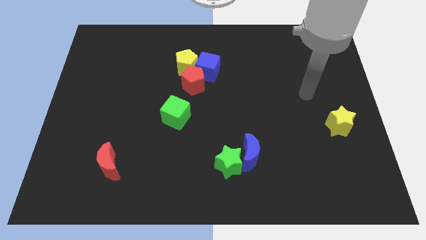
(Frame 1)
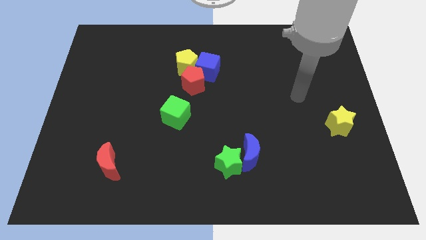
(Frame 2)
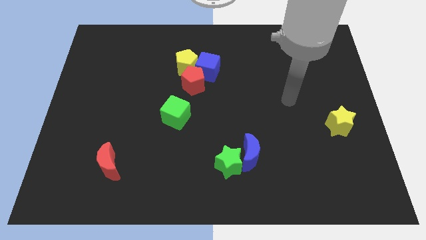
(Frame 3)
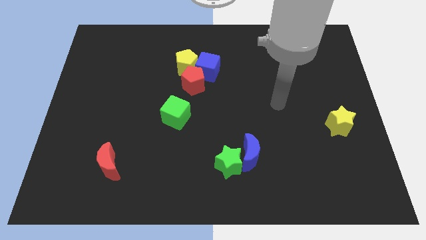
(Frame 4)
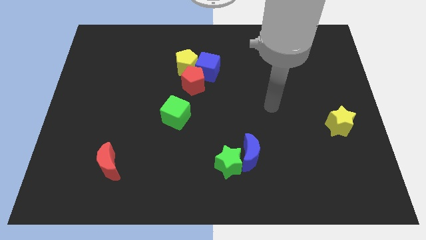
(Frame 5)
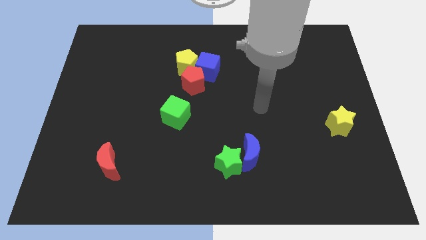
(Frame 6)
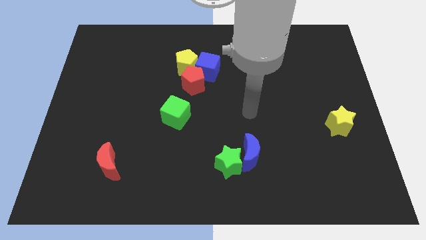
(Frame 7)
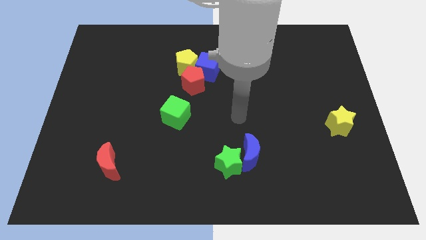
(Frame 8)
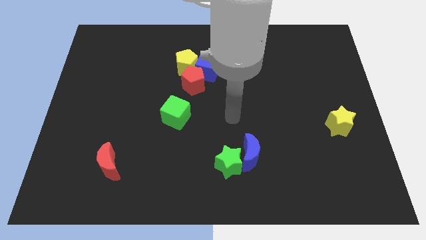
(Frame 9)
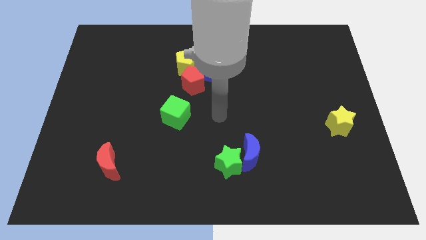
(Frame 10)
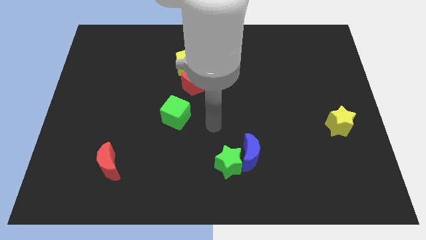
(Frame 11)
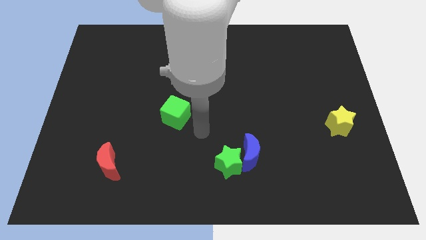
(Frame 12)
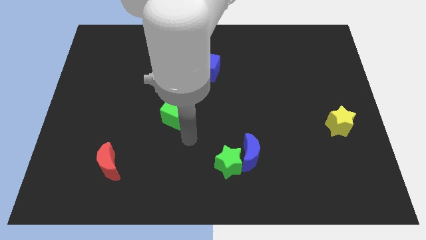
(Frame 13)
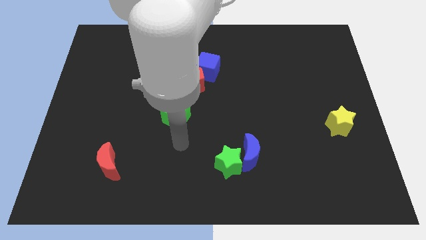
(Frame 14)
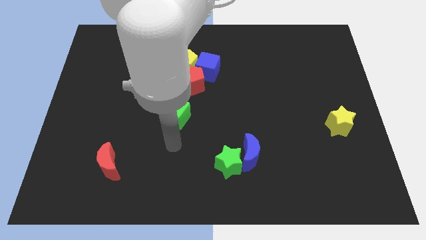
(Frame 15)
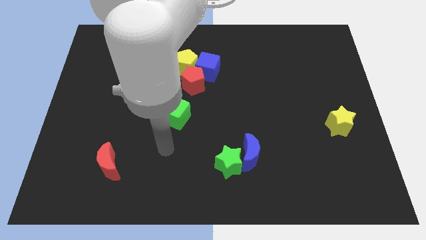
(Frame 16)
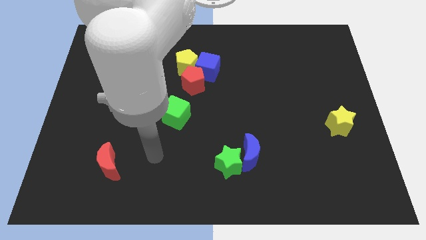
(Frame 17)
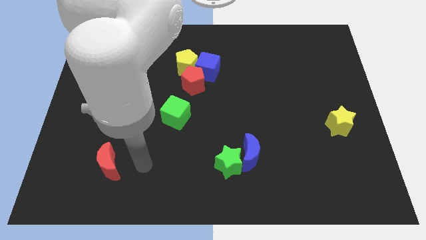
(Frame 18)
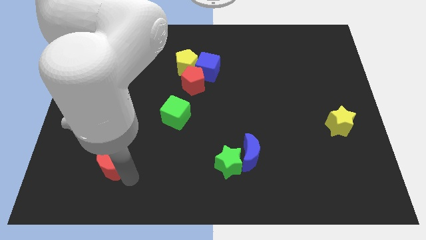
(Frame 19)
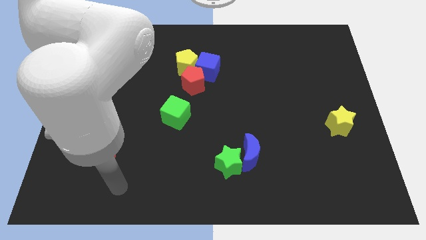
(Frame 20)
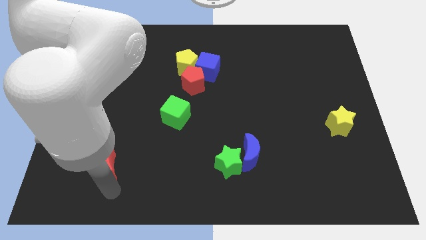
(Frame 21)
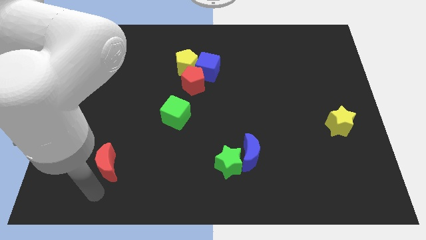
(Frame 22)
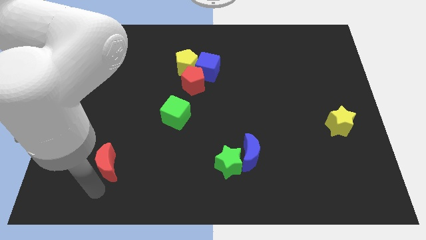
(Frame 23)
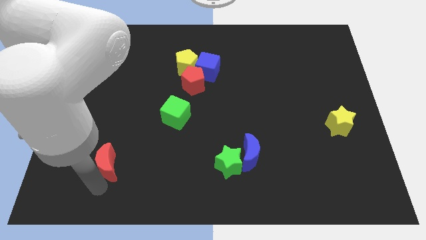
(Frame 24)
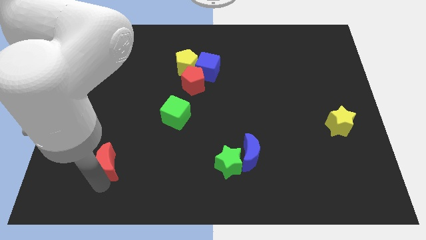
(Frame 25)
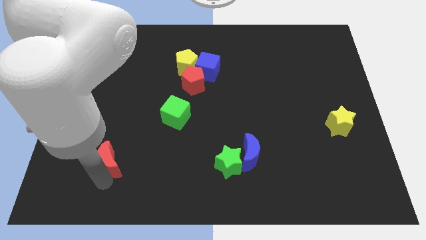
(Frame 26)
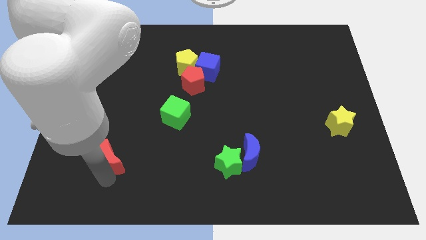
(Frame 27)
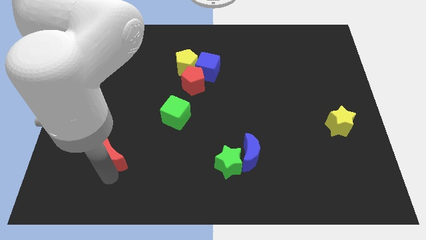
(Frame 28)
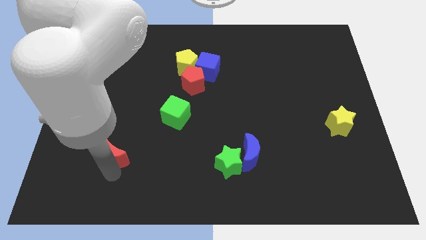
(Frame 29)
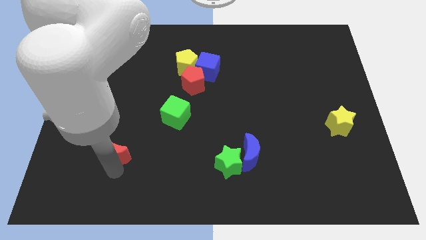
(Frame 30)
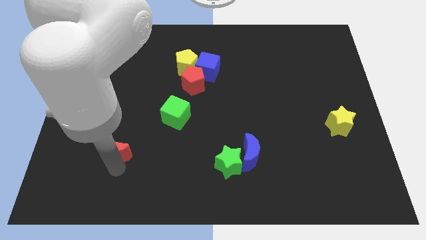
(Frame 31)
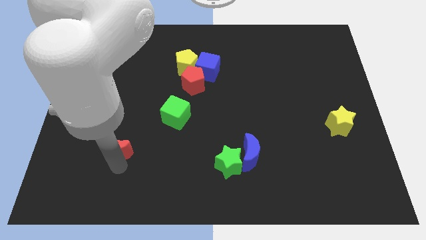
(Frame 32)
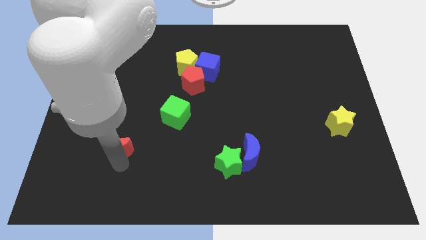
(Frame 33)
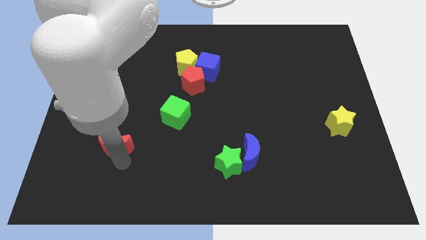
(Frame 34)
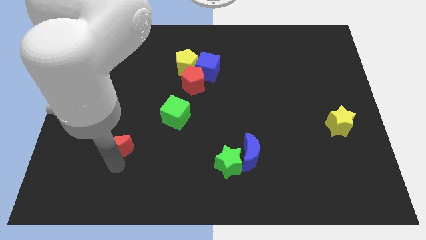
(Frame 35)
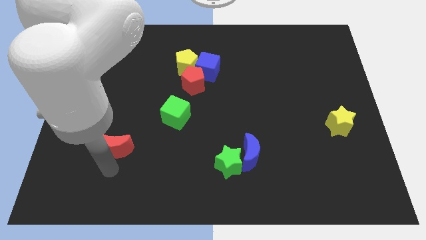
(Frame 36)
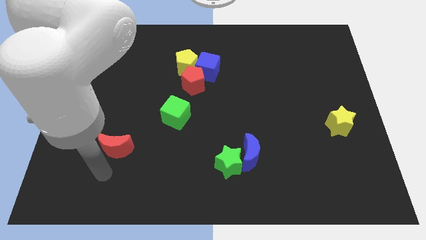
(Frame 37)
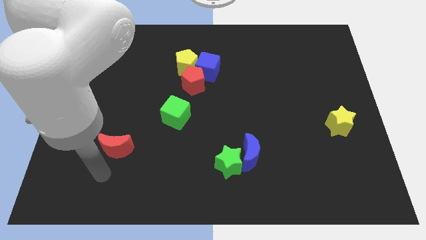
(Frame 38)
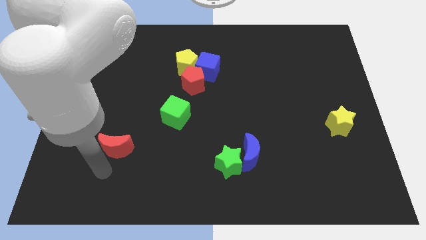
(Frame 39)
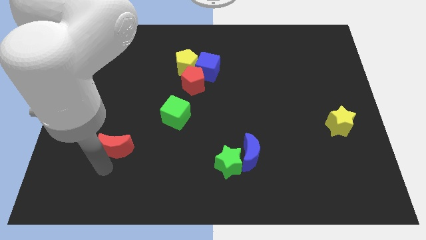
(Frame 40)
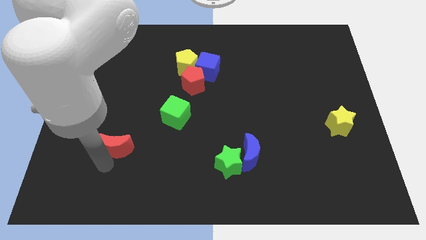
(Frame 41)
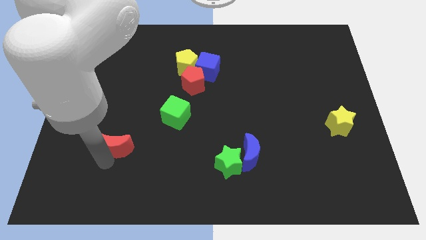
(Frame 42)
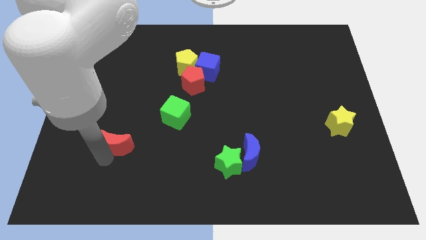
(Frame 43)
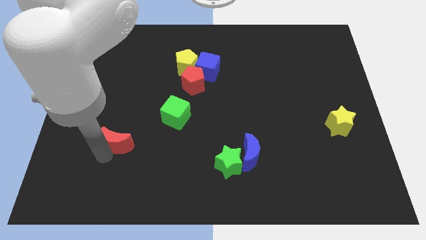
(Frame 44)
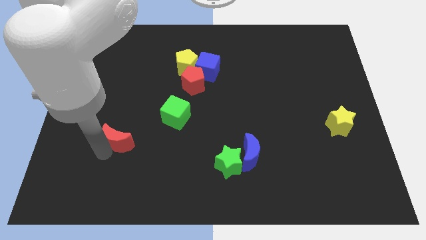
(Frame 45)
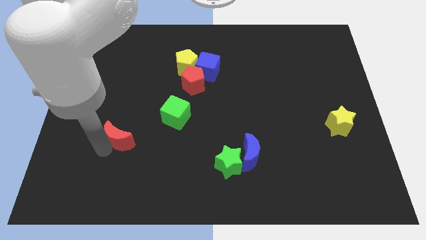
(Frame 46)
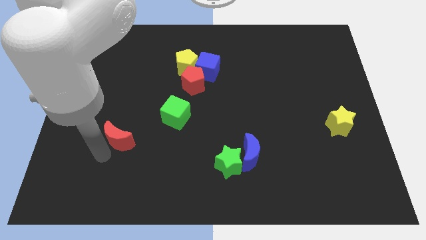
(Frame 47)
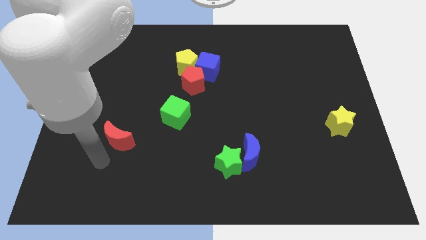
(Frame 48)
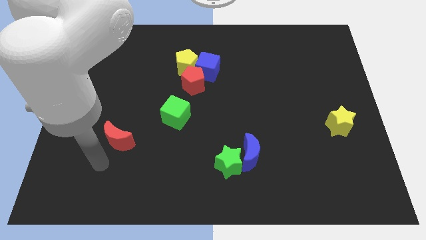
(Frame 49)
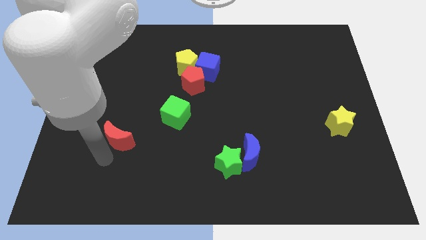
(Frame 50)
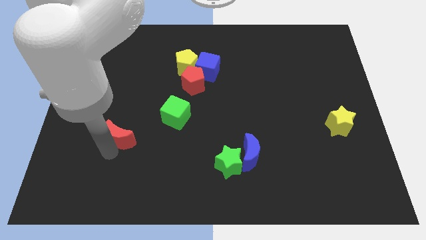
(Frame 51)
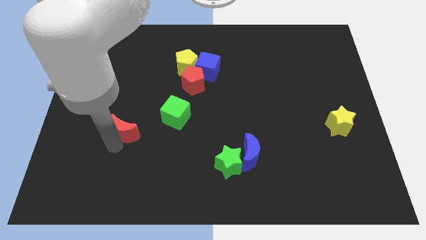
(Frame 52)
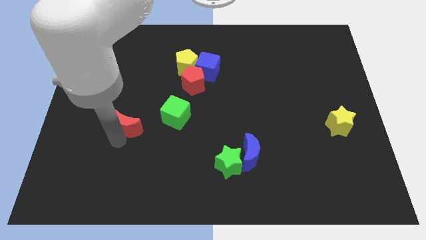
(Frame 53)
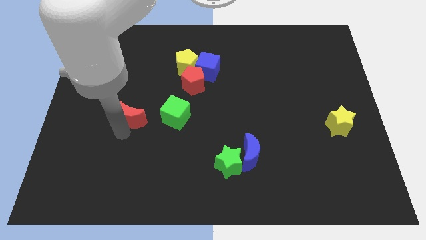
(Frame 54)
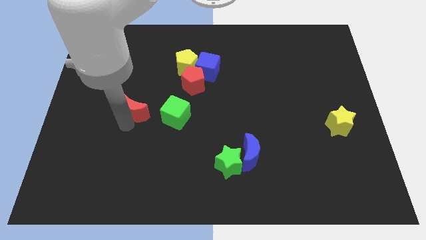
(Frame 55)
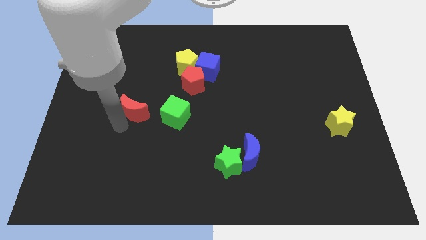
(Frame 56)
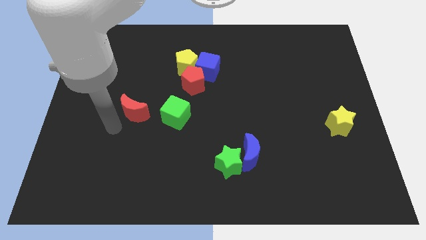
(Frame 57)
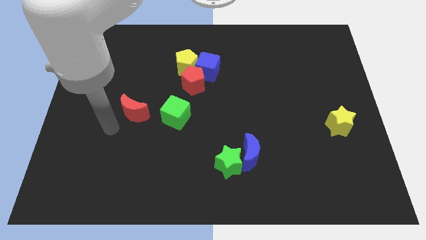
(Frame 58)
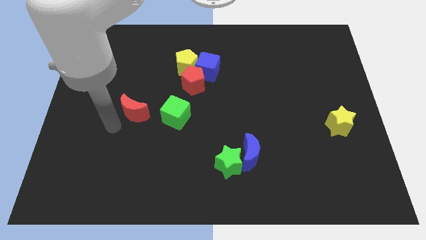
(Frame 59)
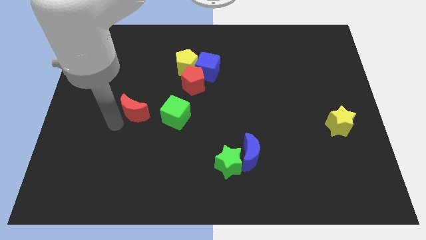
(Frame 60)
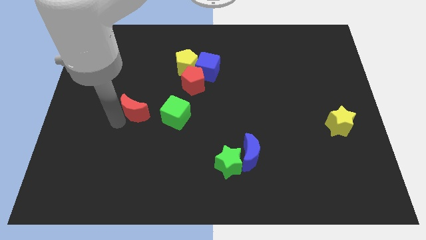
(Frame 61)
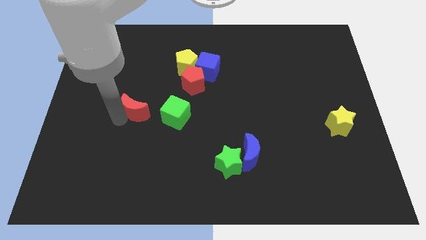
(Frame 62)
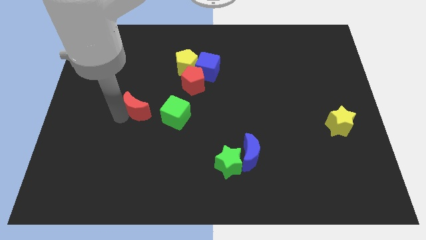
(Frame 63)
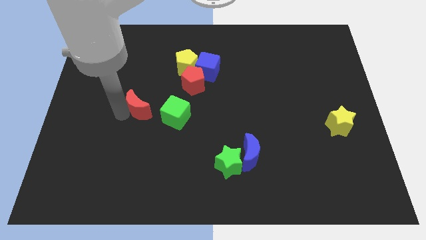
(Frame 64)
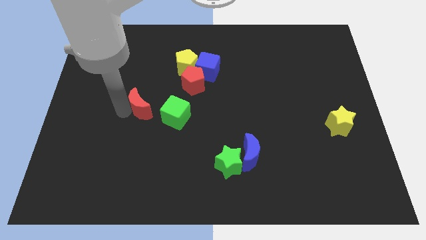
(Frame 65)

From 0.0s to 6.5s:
put the red moon to the top left side of the green cube

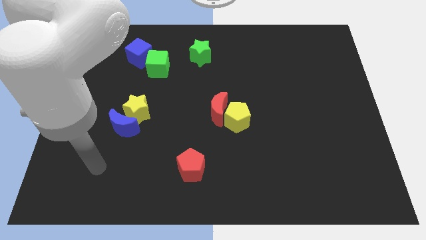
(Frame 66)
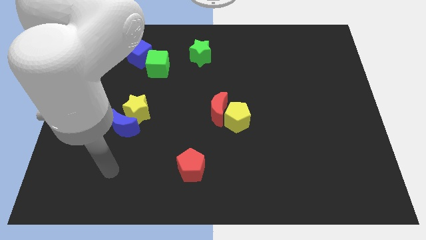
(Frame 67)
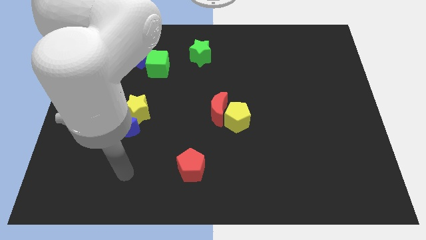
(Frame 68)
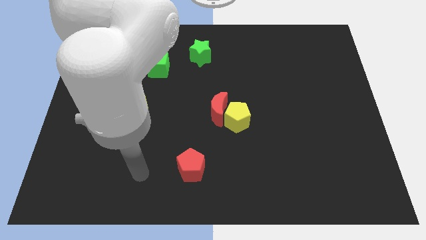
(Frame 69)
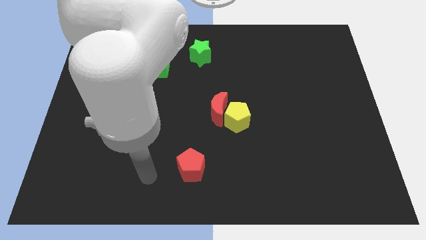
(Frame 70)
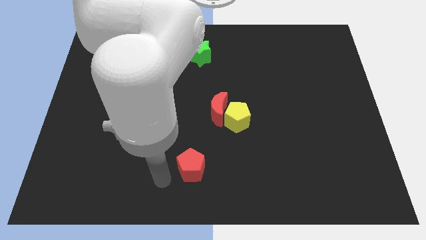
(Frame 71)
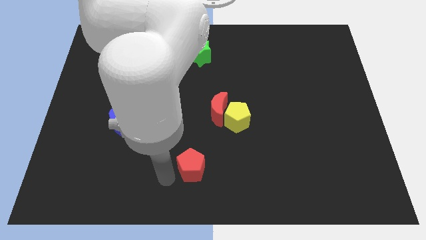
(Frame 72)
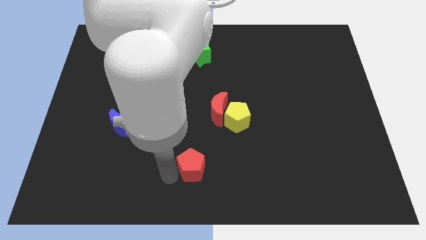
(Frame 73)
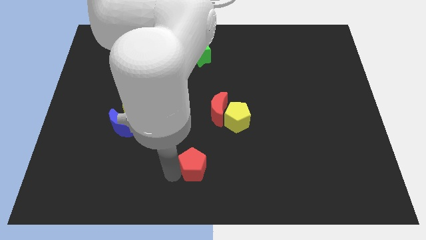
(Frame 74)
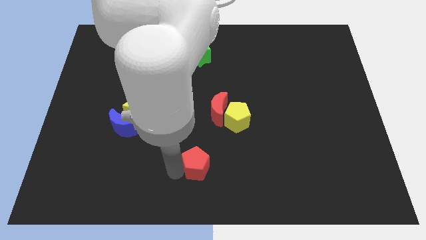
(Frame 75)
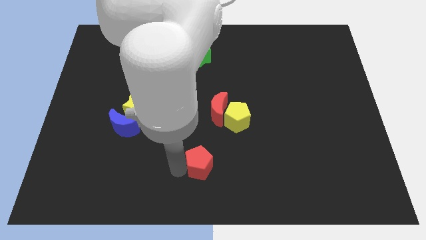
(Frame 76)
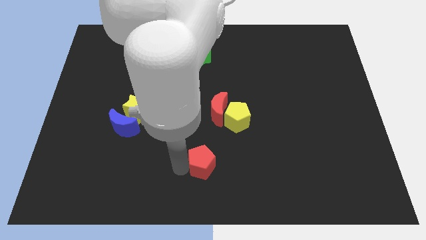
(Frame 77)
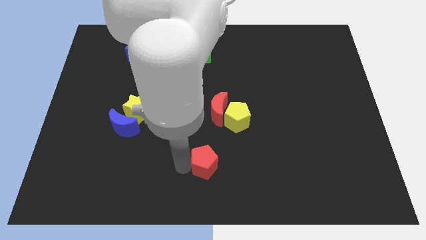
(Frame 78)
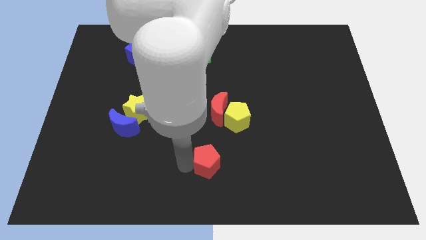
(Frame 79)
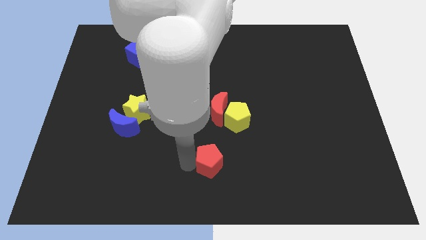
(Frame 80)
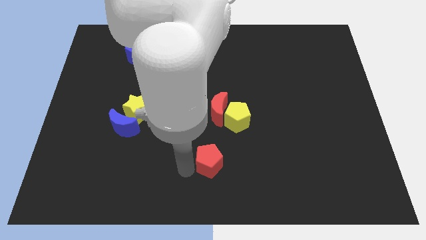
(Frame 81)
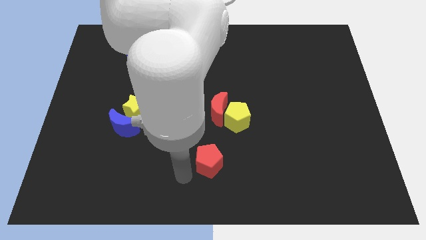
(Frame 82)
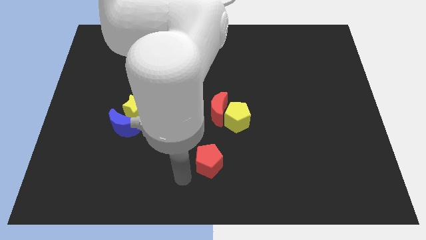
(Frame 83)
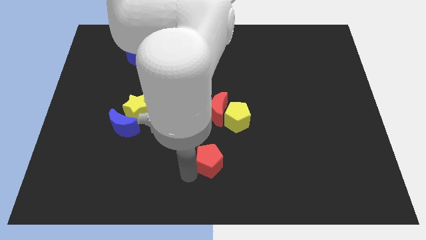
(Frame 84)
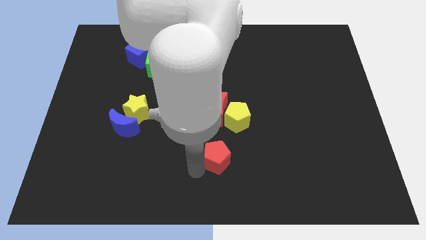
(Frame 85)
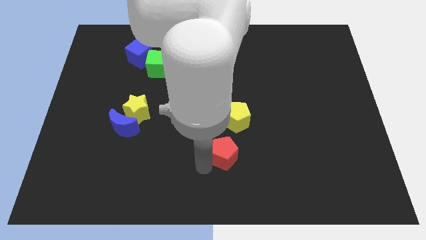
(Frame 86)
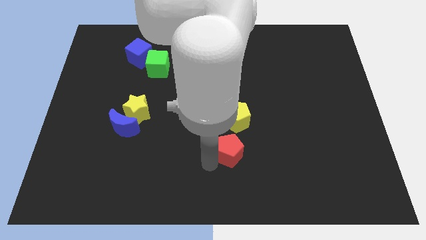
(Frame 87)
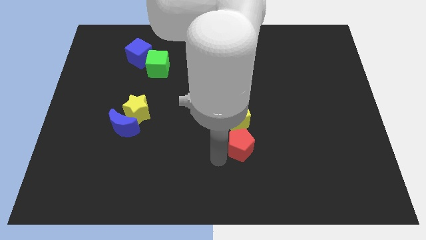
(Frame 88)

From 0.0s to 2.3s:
slide the red pentagon diagonally down and to the right of the yellow pentagon
